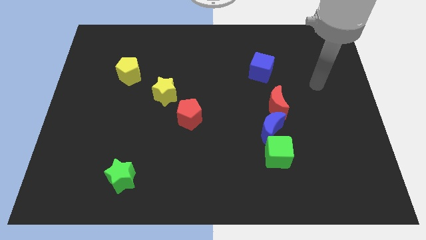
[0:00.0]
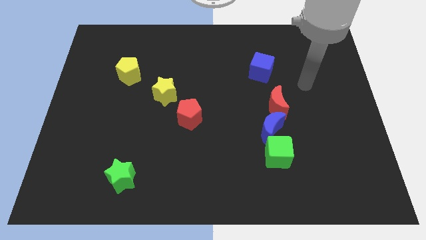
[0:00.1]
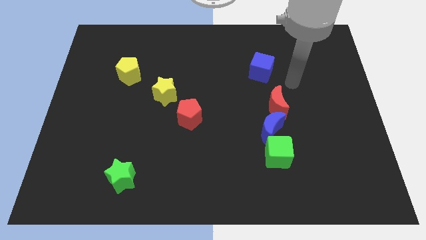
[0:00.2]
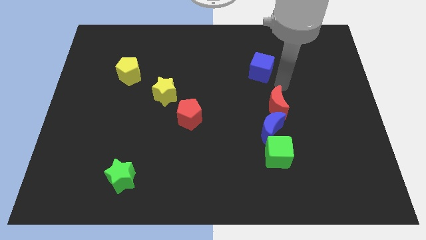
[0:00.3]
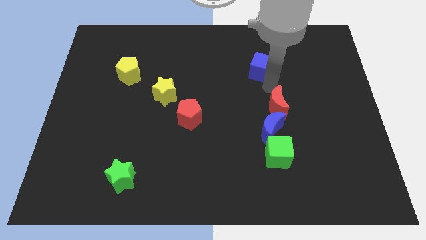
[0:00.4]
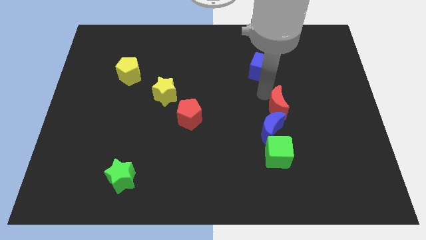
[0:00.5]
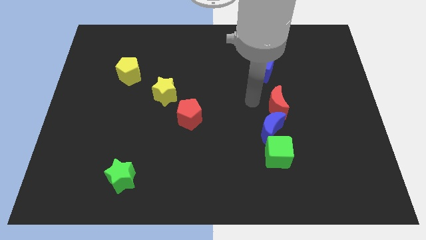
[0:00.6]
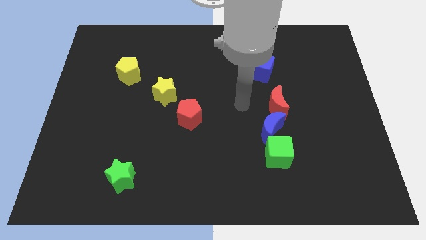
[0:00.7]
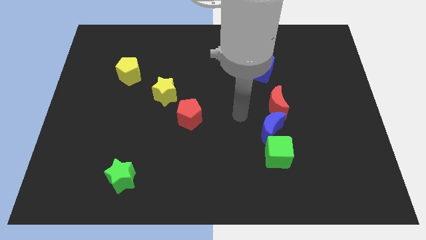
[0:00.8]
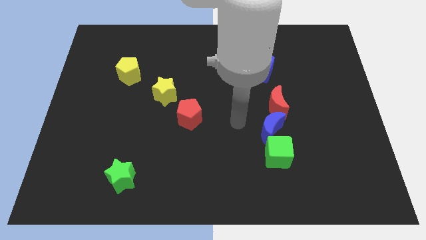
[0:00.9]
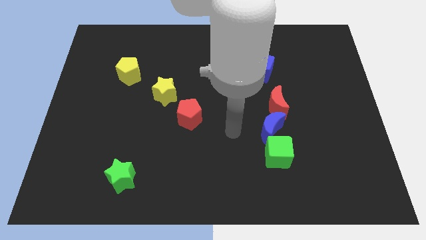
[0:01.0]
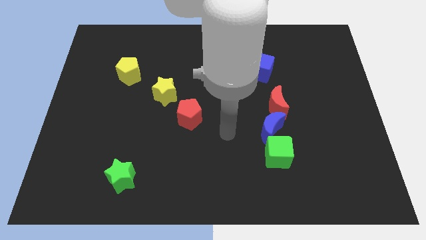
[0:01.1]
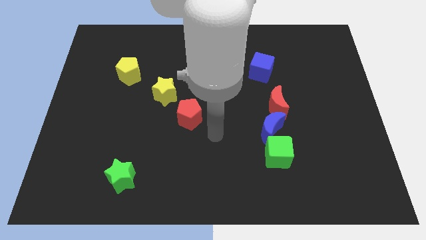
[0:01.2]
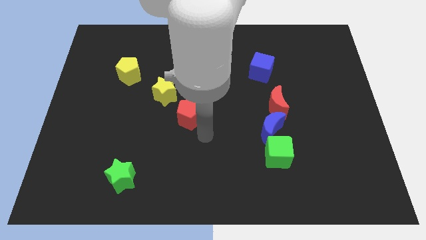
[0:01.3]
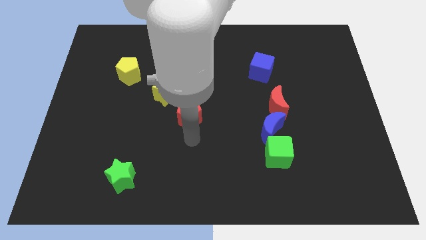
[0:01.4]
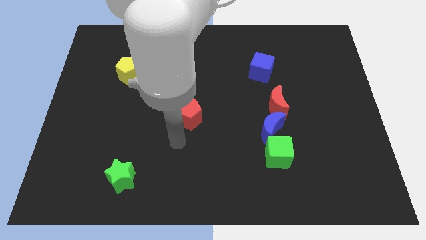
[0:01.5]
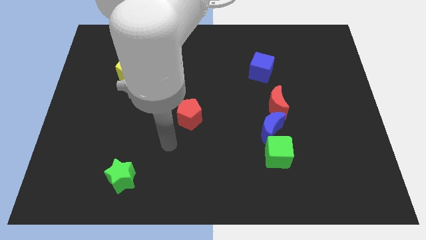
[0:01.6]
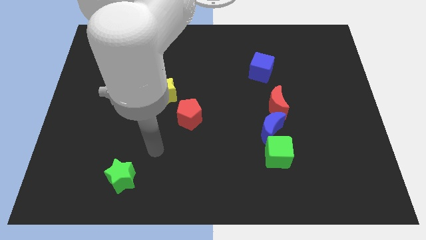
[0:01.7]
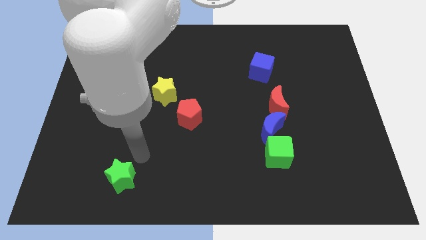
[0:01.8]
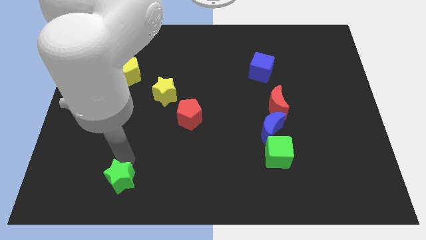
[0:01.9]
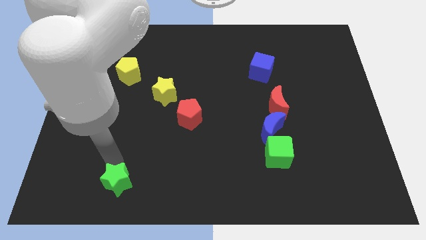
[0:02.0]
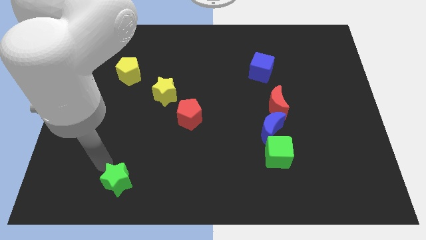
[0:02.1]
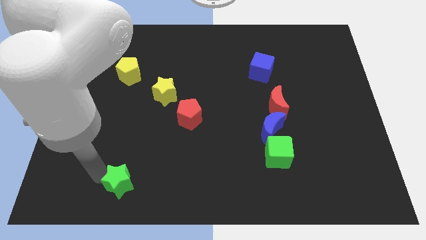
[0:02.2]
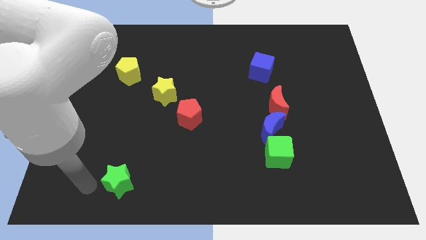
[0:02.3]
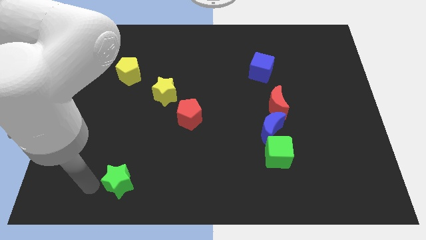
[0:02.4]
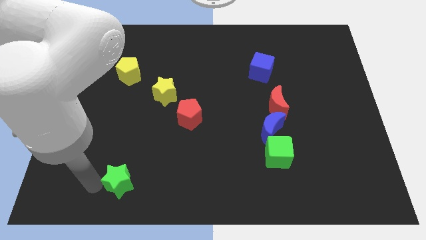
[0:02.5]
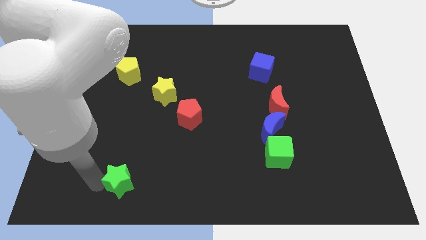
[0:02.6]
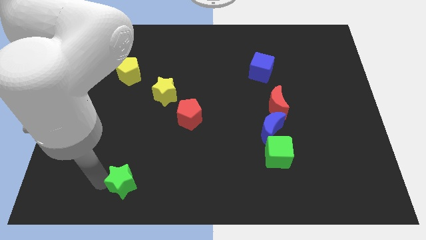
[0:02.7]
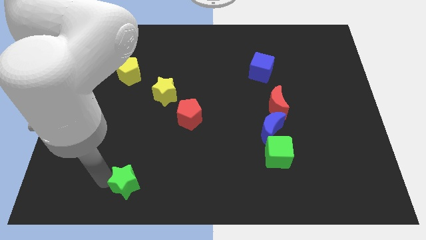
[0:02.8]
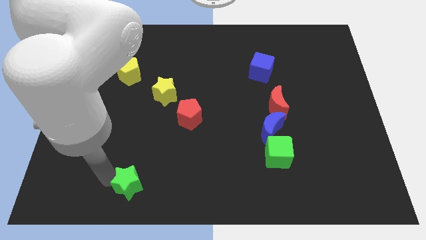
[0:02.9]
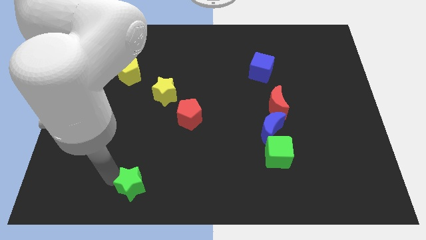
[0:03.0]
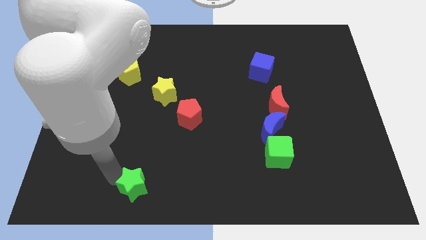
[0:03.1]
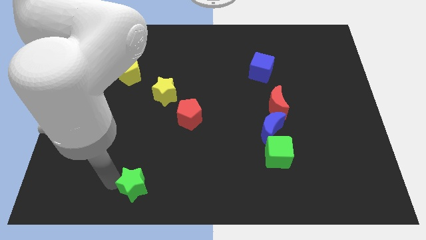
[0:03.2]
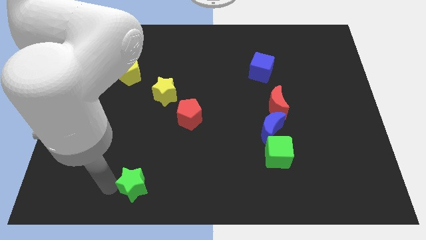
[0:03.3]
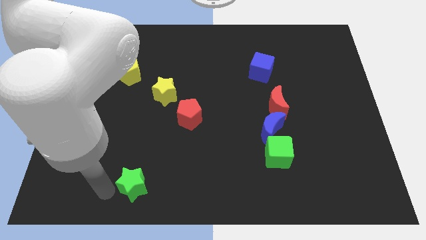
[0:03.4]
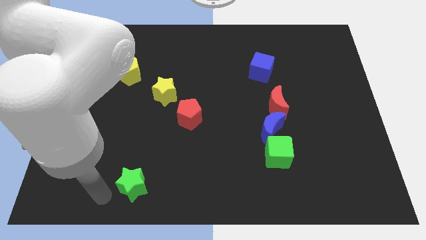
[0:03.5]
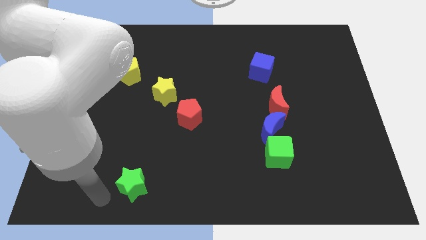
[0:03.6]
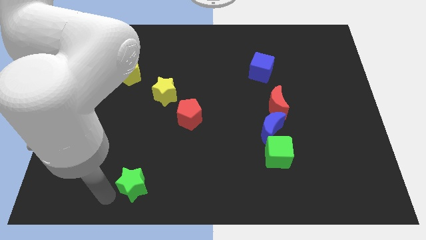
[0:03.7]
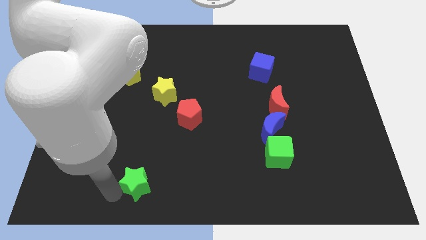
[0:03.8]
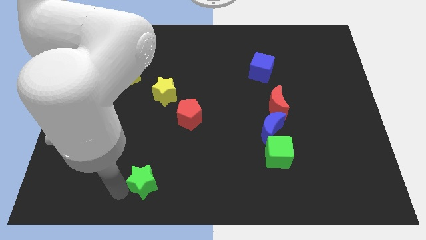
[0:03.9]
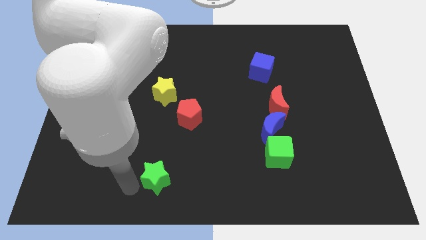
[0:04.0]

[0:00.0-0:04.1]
slide the green star to the right a little

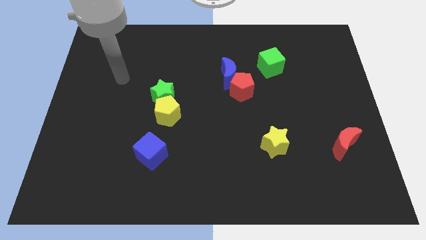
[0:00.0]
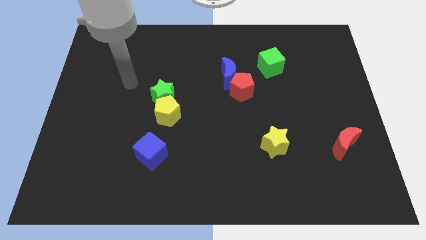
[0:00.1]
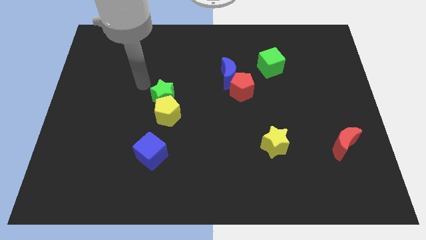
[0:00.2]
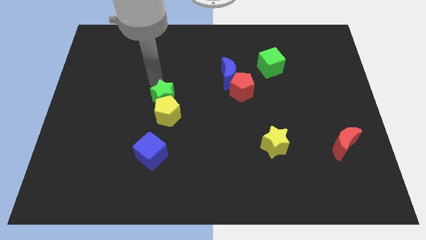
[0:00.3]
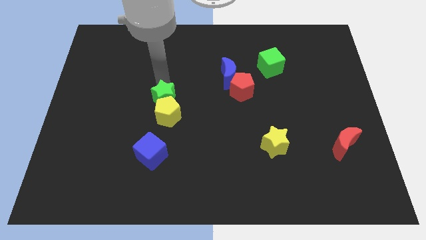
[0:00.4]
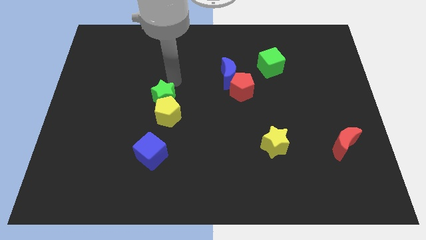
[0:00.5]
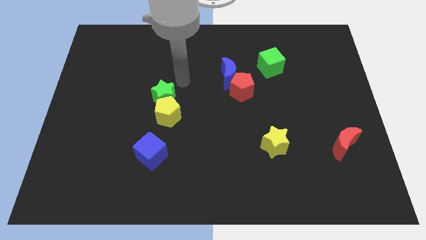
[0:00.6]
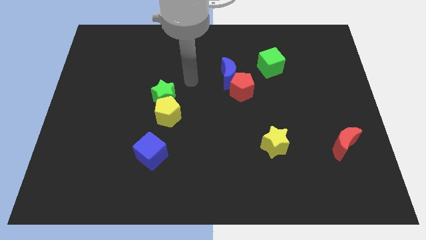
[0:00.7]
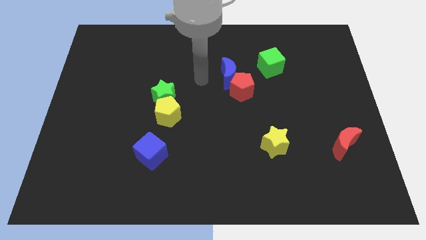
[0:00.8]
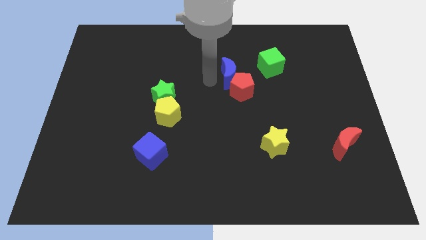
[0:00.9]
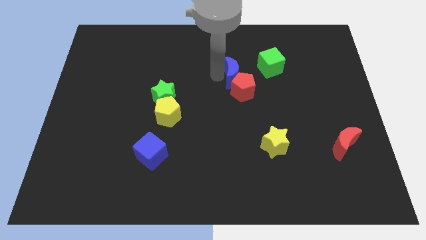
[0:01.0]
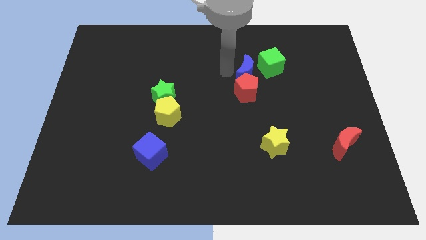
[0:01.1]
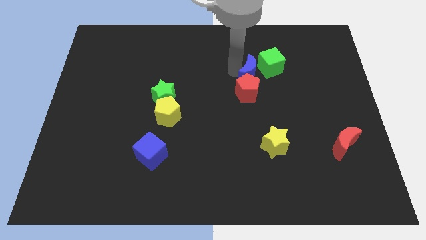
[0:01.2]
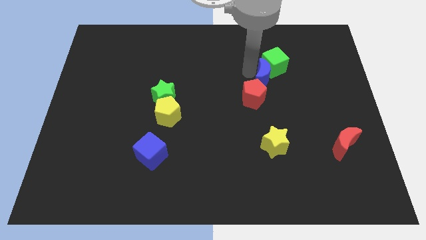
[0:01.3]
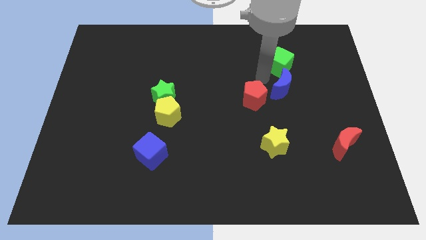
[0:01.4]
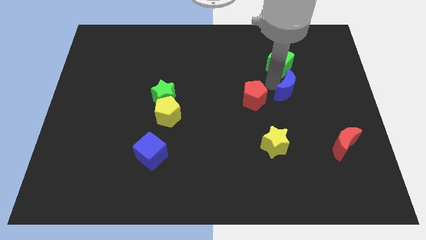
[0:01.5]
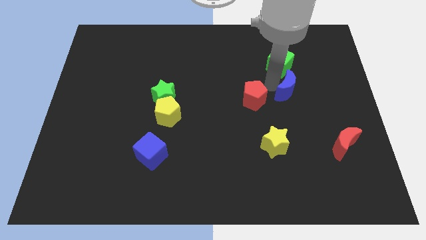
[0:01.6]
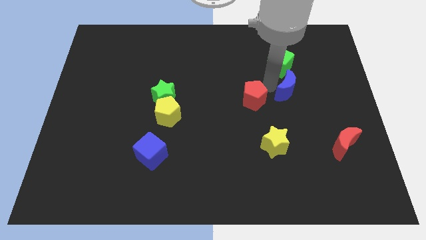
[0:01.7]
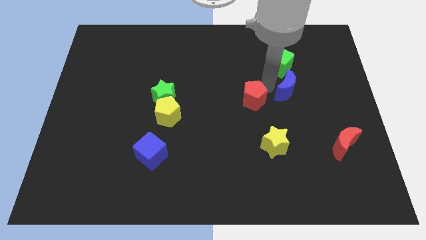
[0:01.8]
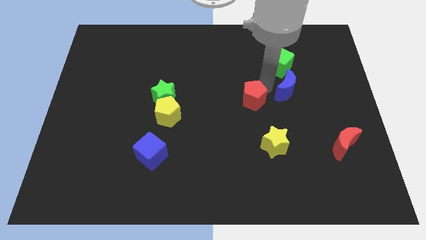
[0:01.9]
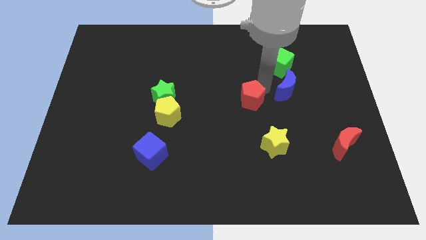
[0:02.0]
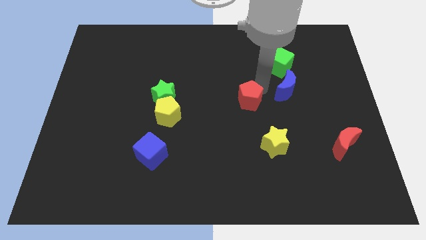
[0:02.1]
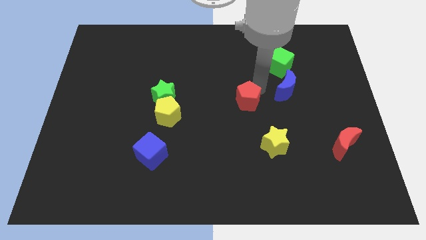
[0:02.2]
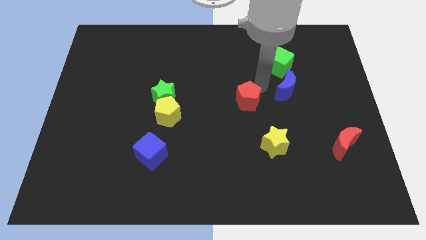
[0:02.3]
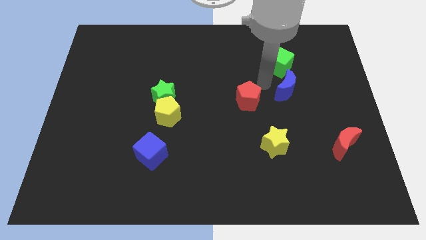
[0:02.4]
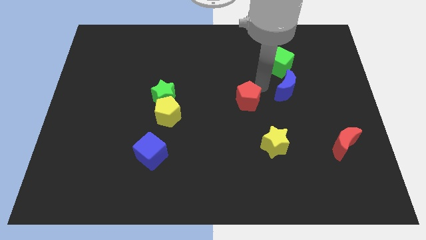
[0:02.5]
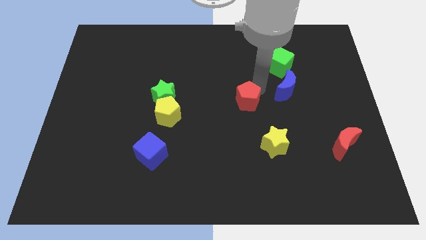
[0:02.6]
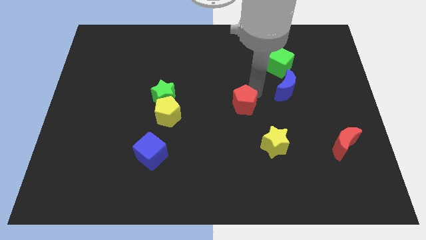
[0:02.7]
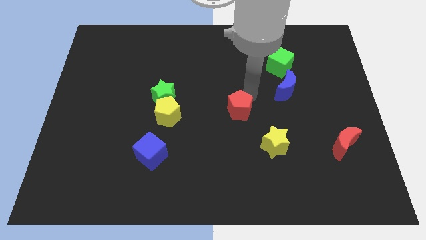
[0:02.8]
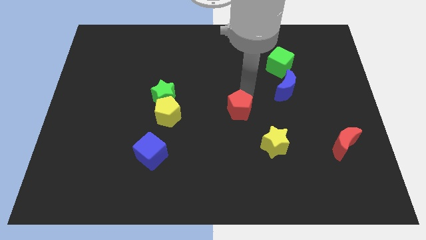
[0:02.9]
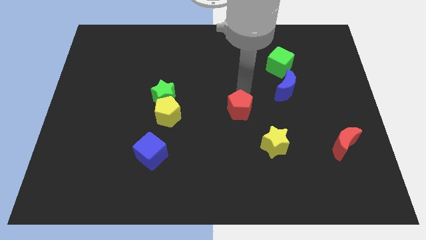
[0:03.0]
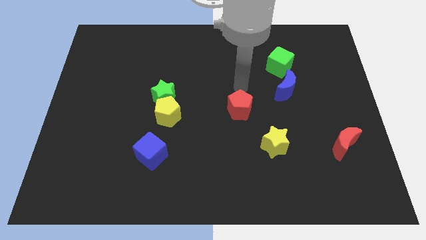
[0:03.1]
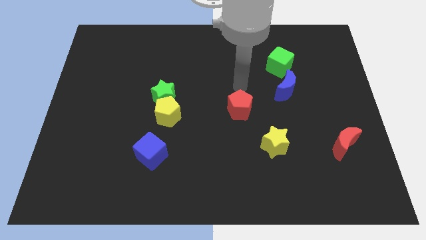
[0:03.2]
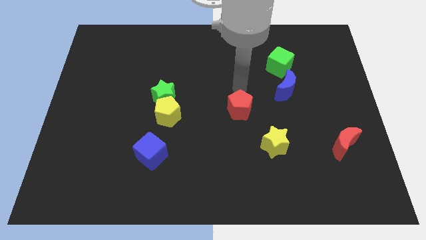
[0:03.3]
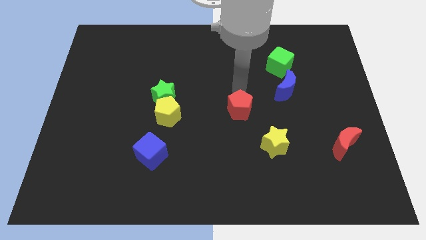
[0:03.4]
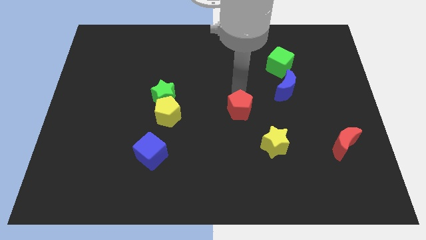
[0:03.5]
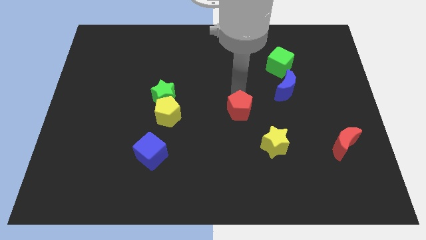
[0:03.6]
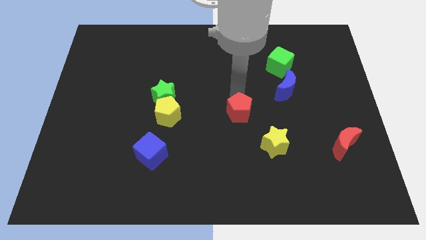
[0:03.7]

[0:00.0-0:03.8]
slide the red pentagon downwards a bit

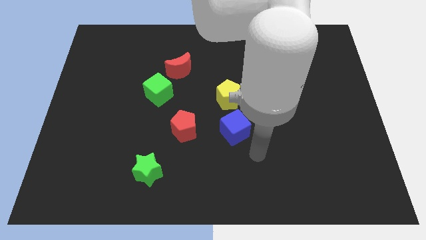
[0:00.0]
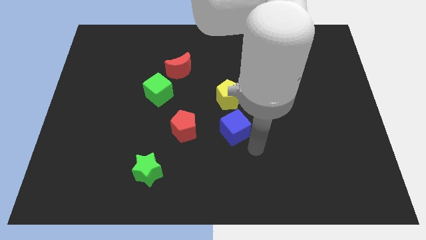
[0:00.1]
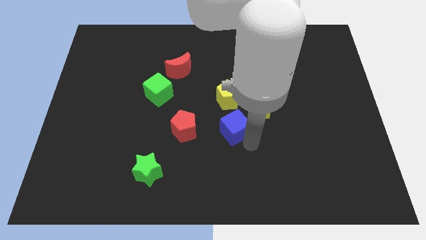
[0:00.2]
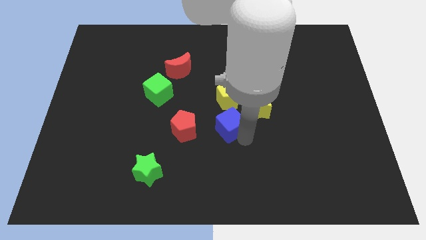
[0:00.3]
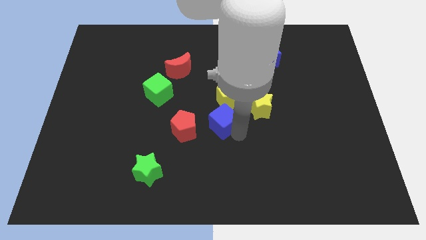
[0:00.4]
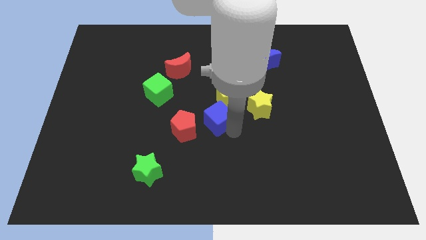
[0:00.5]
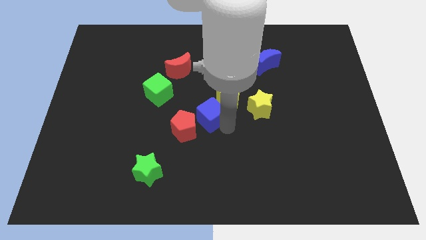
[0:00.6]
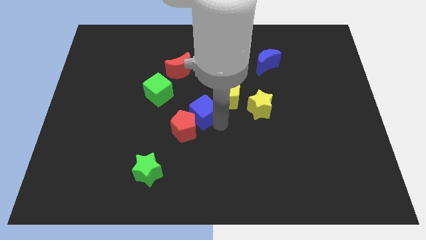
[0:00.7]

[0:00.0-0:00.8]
move the blue cube slightly diagonally upwards and to the left
